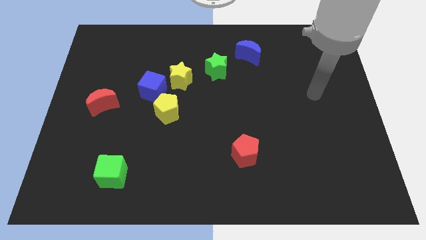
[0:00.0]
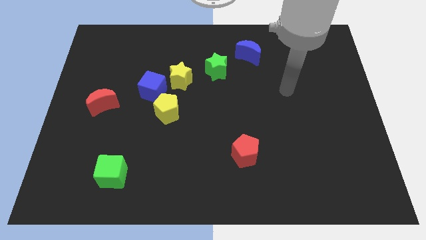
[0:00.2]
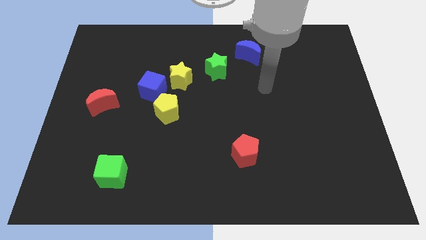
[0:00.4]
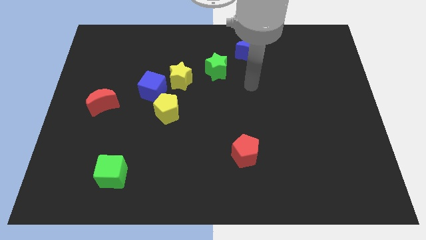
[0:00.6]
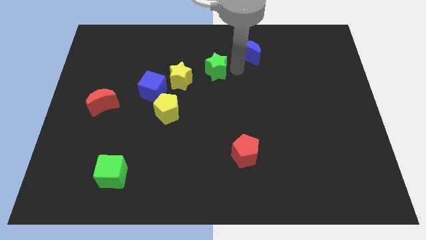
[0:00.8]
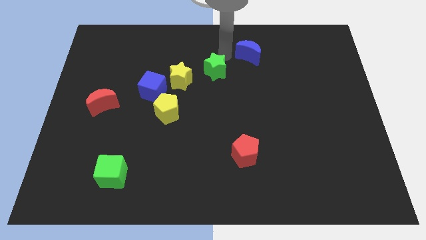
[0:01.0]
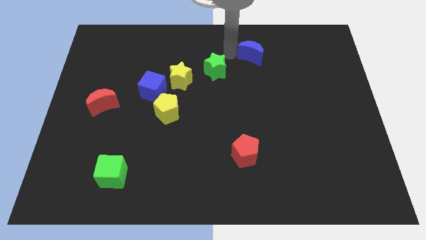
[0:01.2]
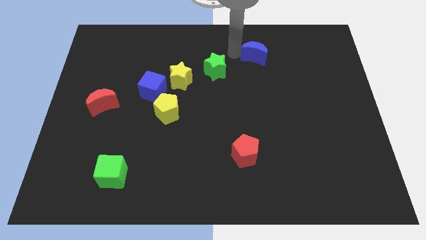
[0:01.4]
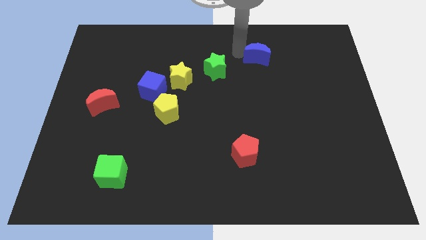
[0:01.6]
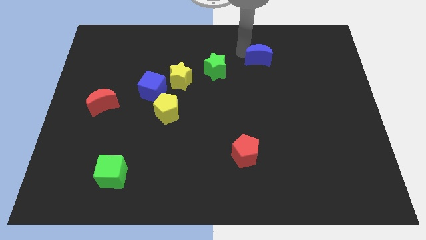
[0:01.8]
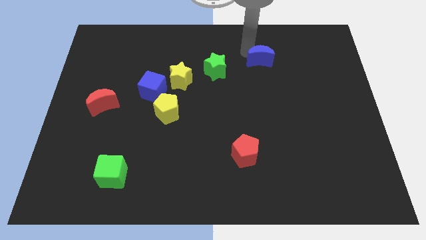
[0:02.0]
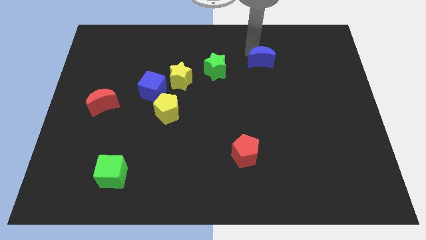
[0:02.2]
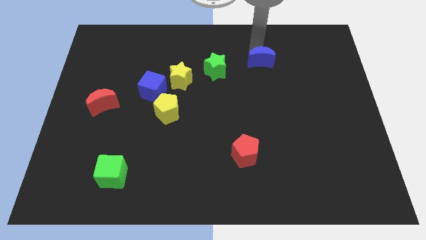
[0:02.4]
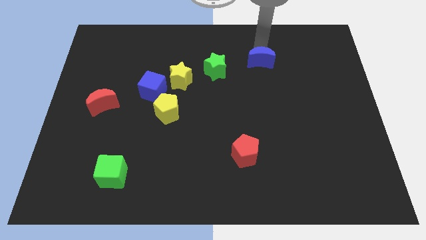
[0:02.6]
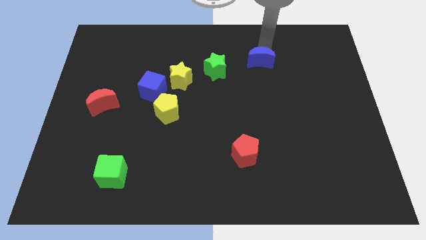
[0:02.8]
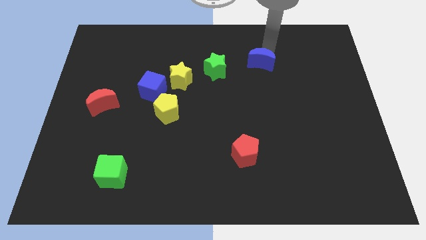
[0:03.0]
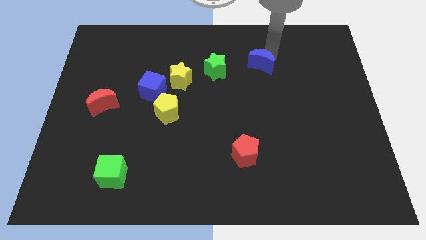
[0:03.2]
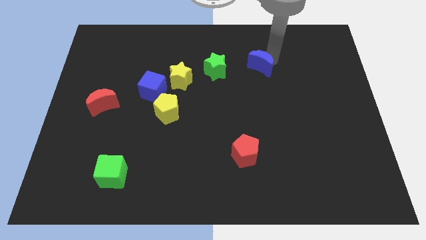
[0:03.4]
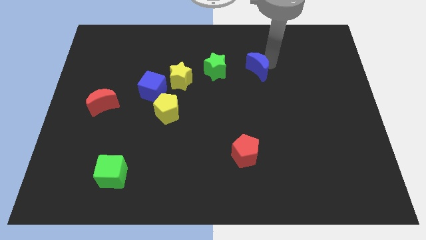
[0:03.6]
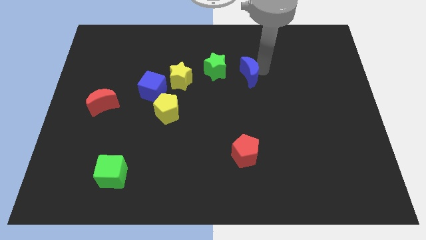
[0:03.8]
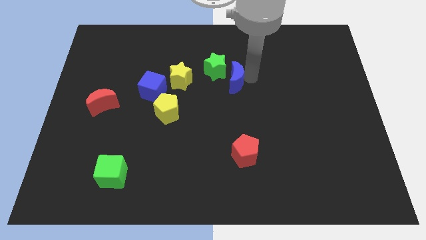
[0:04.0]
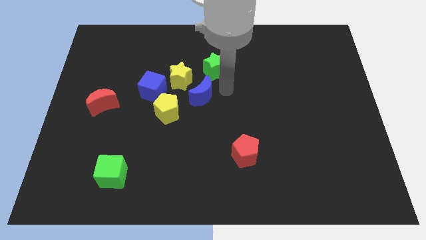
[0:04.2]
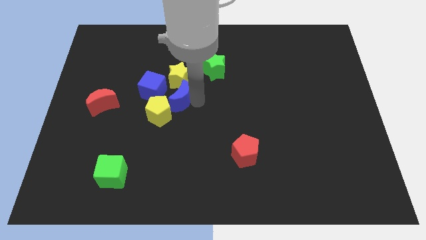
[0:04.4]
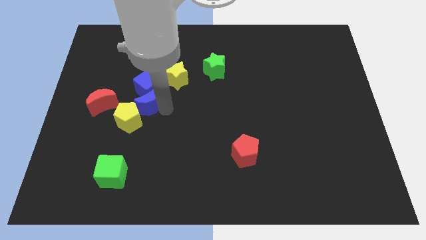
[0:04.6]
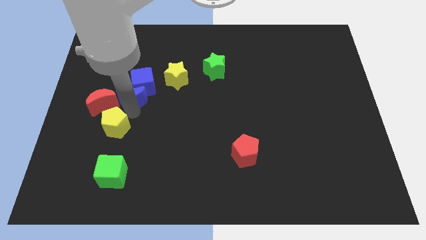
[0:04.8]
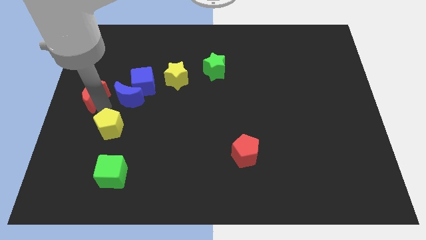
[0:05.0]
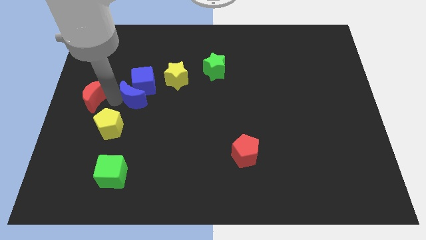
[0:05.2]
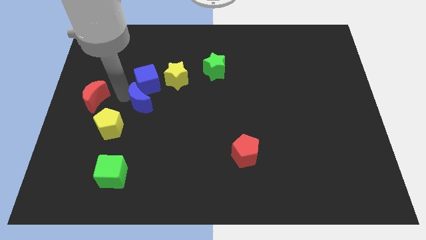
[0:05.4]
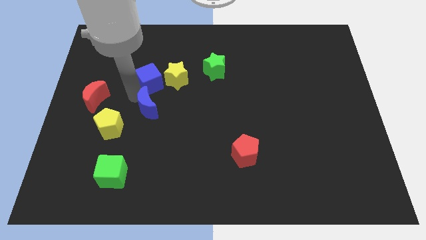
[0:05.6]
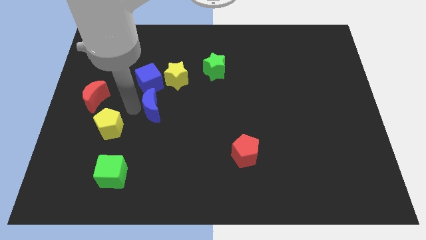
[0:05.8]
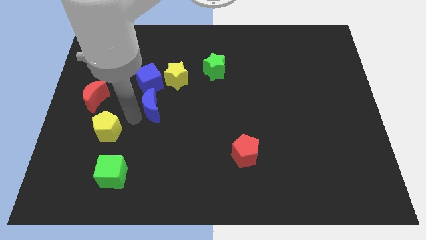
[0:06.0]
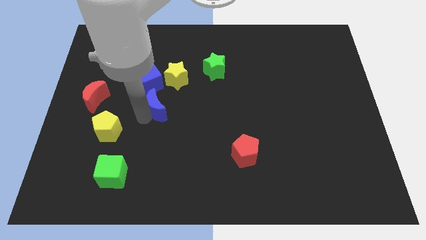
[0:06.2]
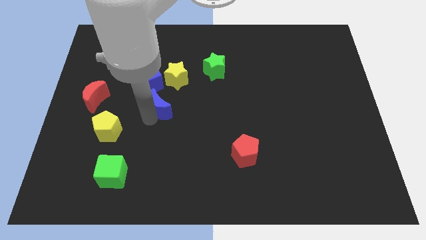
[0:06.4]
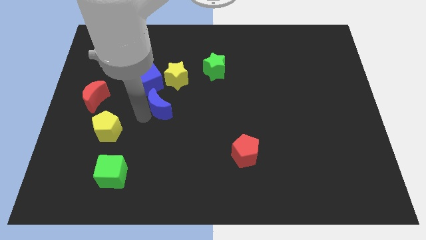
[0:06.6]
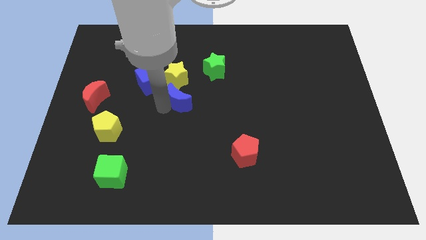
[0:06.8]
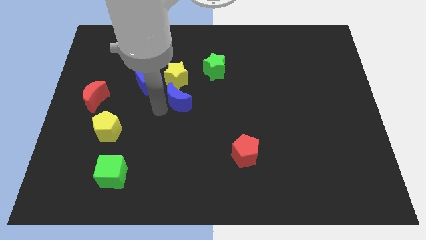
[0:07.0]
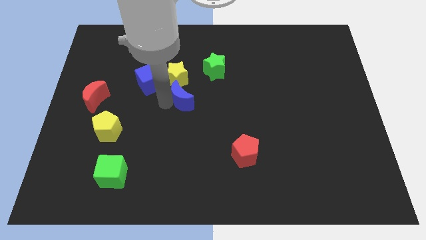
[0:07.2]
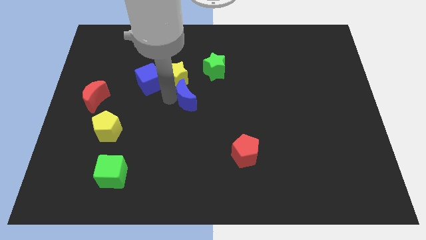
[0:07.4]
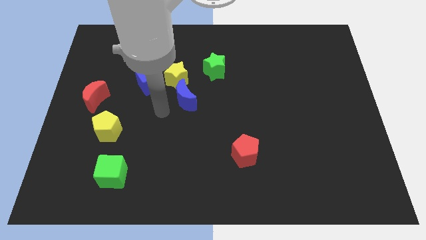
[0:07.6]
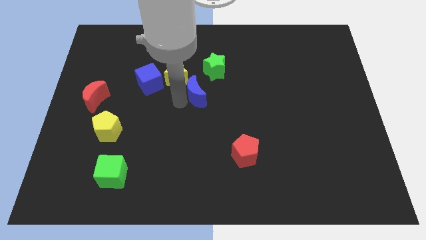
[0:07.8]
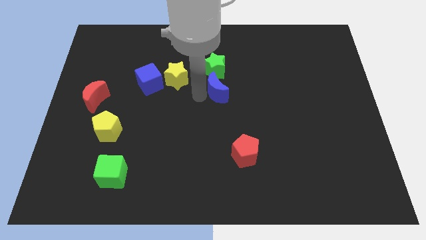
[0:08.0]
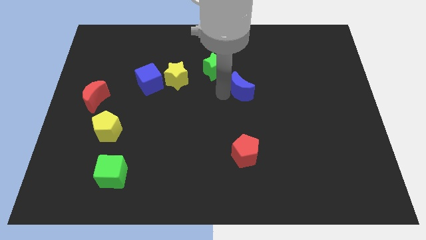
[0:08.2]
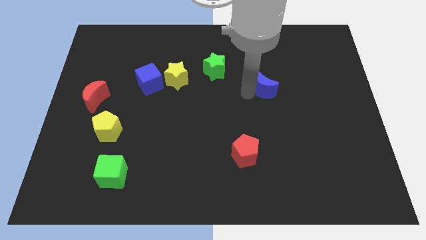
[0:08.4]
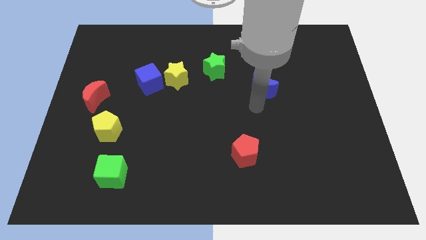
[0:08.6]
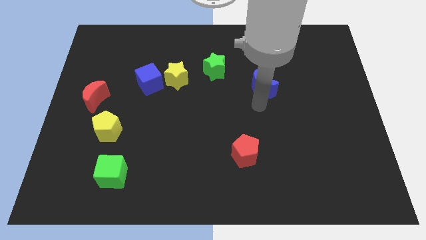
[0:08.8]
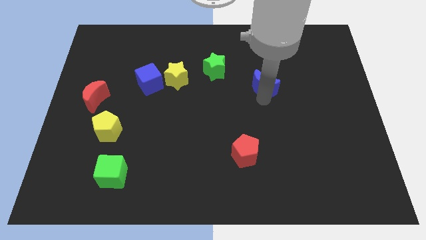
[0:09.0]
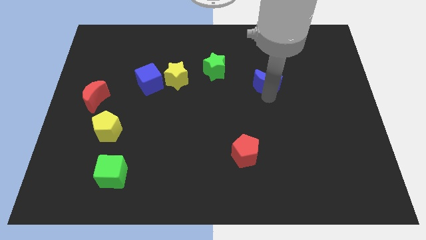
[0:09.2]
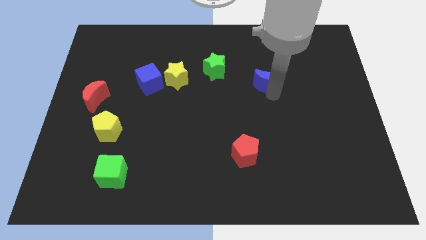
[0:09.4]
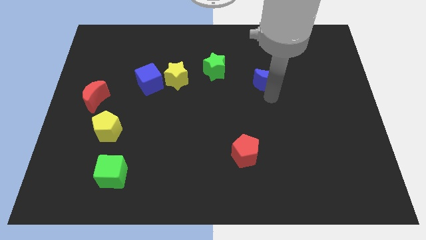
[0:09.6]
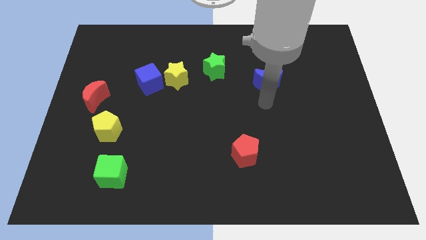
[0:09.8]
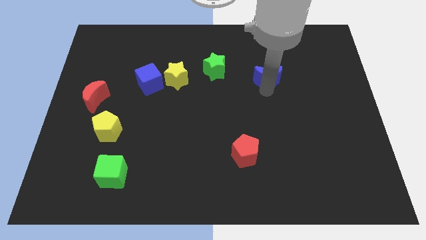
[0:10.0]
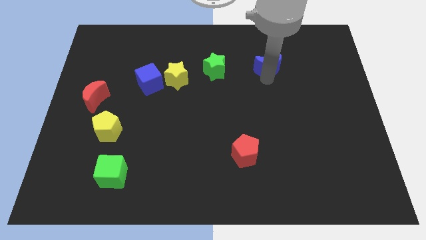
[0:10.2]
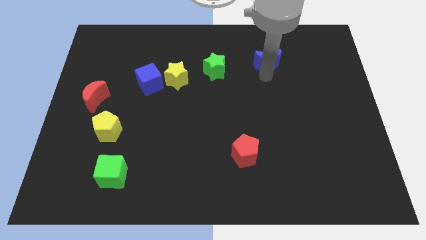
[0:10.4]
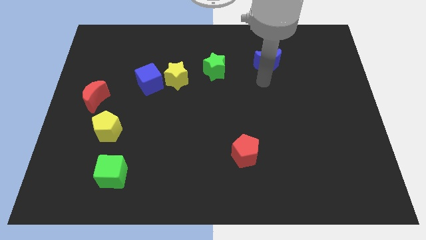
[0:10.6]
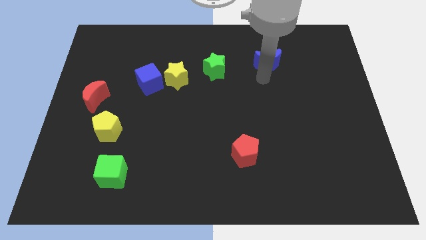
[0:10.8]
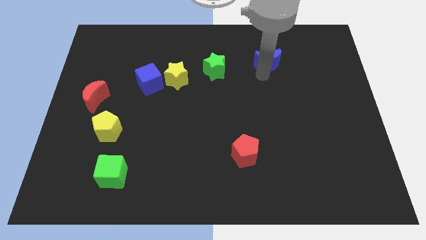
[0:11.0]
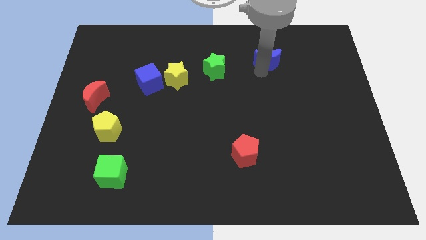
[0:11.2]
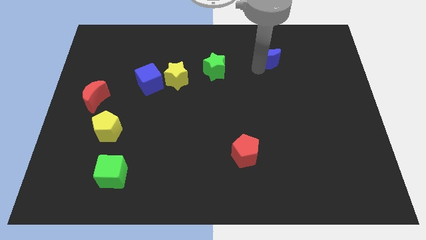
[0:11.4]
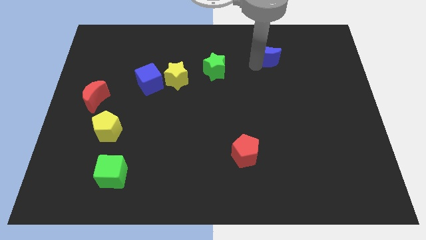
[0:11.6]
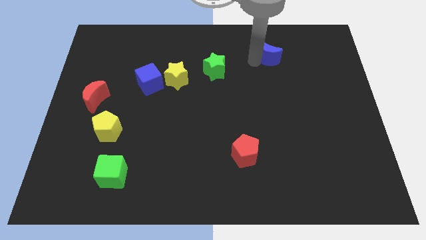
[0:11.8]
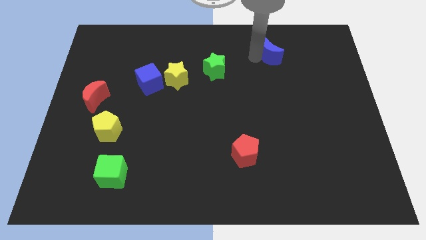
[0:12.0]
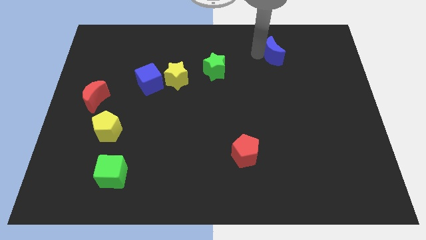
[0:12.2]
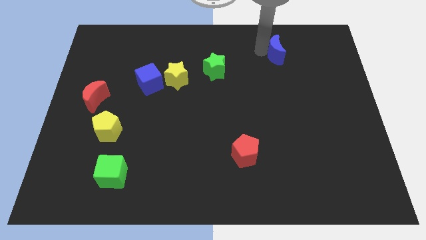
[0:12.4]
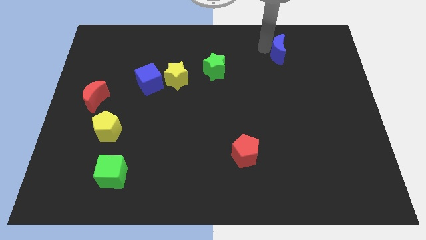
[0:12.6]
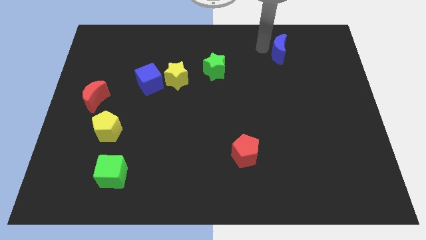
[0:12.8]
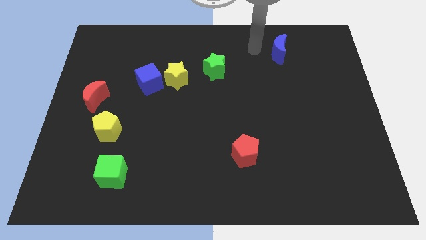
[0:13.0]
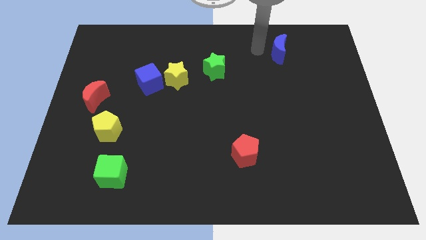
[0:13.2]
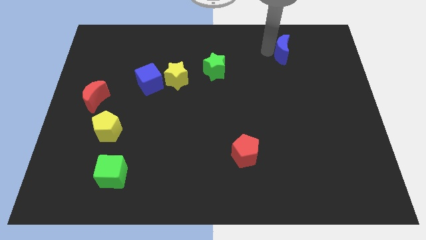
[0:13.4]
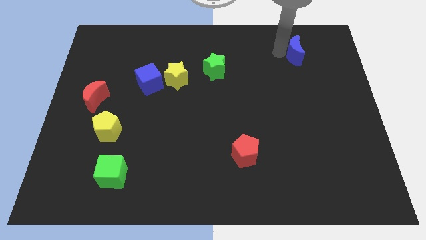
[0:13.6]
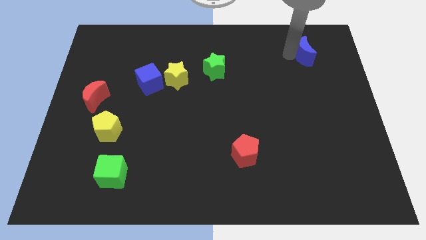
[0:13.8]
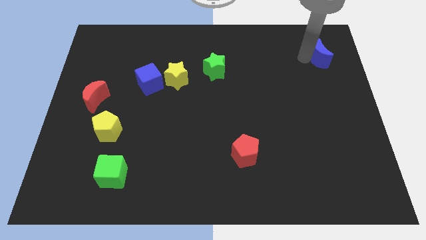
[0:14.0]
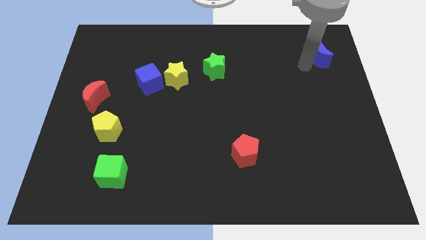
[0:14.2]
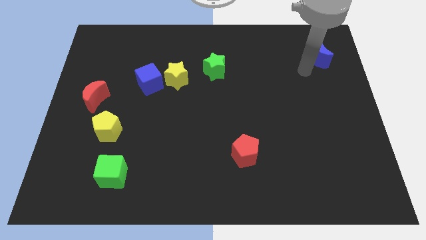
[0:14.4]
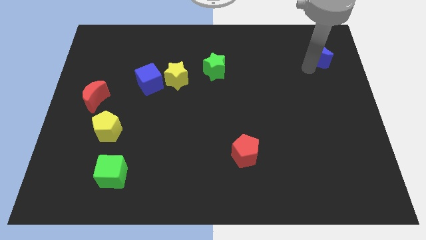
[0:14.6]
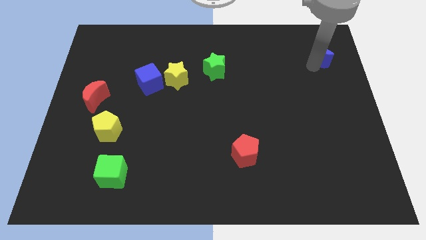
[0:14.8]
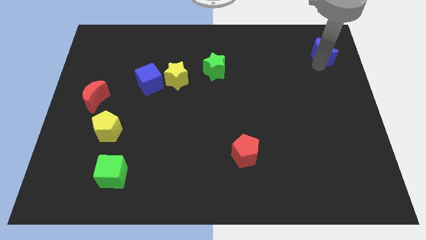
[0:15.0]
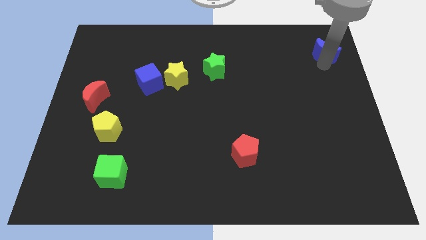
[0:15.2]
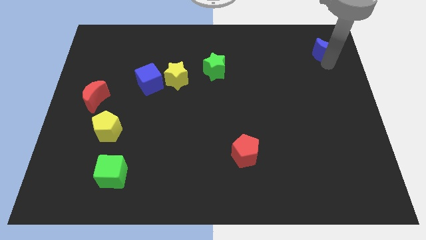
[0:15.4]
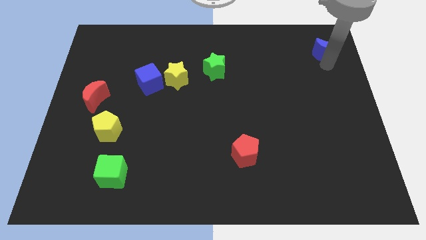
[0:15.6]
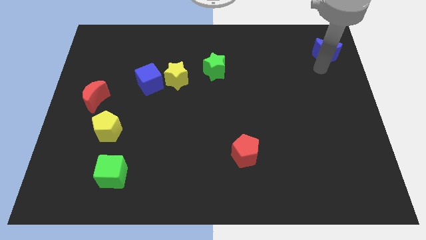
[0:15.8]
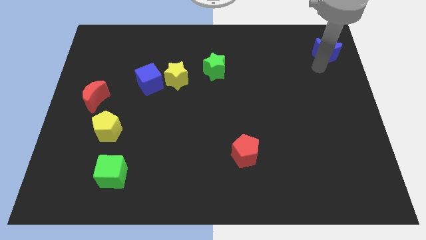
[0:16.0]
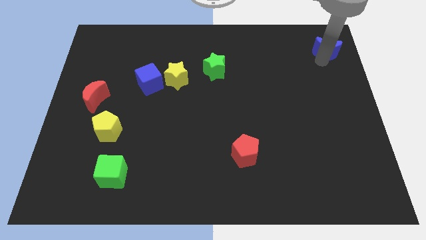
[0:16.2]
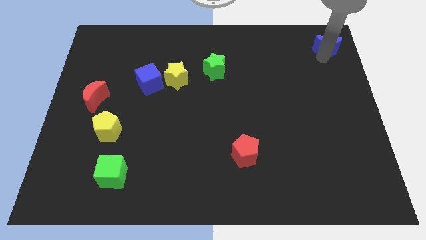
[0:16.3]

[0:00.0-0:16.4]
move the blue moon to the upper right corner
